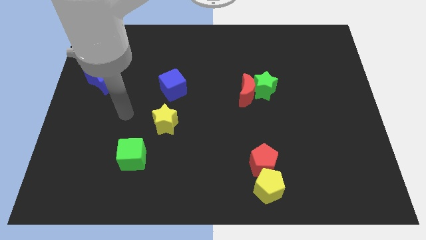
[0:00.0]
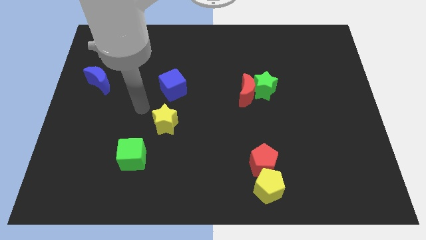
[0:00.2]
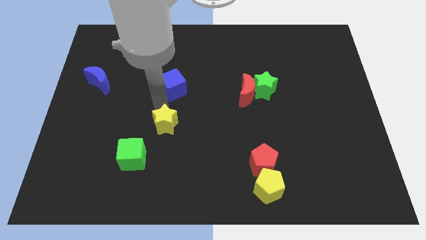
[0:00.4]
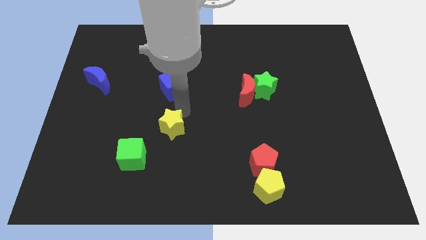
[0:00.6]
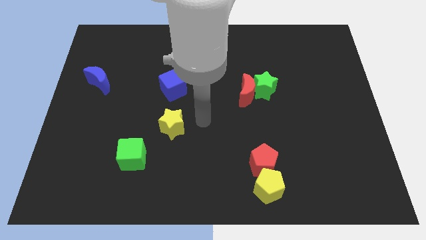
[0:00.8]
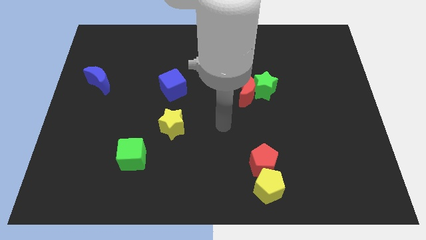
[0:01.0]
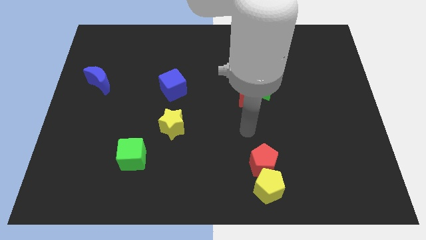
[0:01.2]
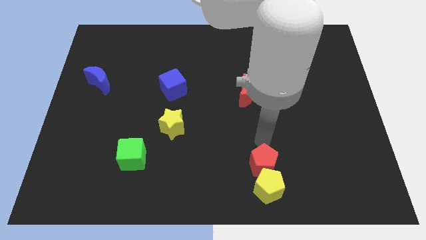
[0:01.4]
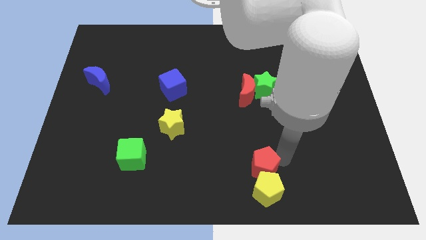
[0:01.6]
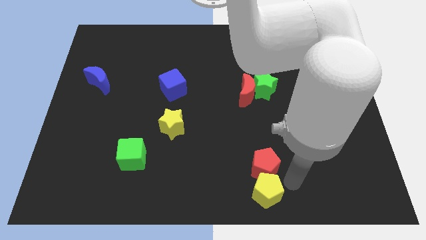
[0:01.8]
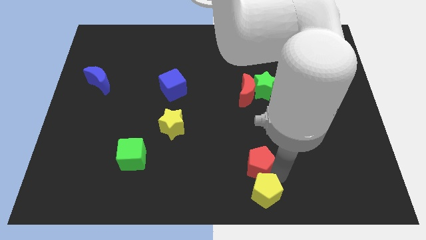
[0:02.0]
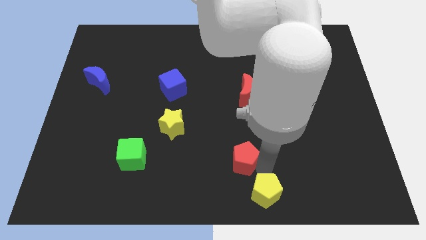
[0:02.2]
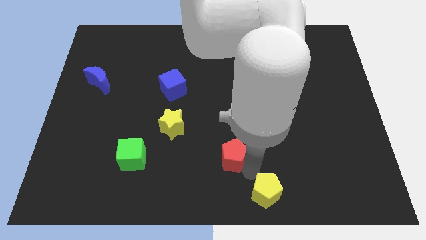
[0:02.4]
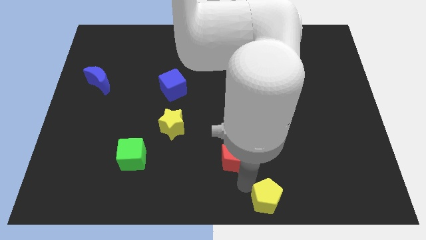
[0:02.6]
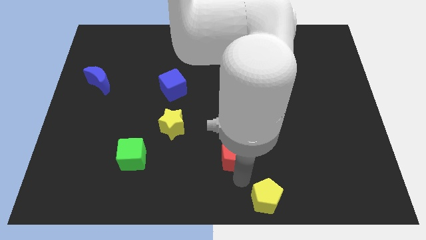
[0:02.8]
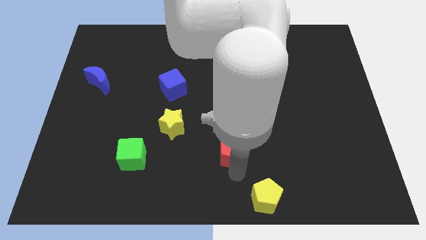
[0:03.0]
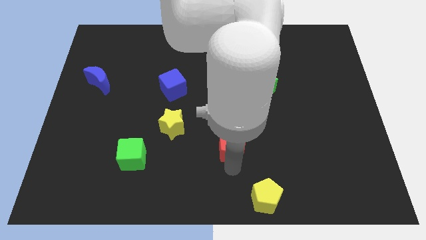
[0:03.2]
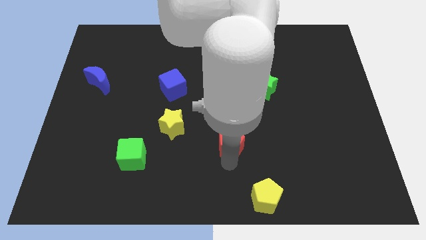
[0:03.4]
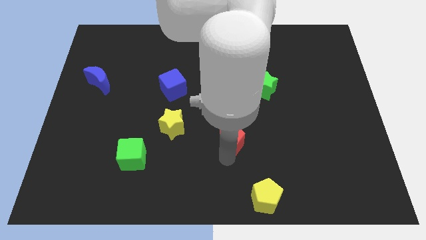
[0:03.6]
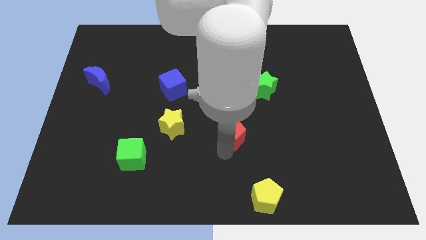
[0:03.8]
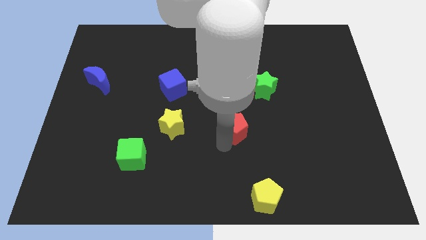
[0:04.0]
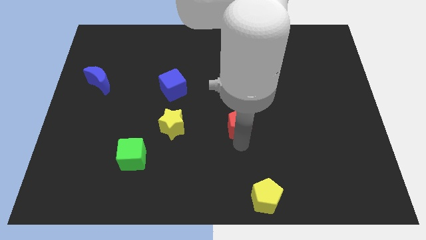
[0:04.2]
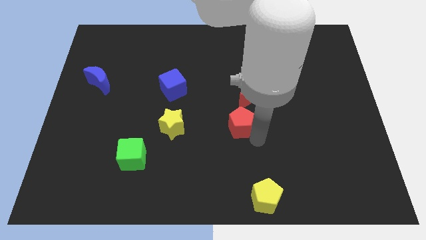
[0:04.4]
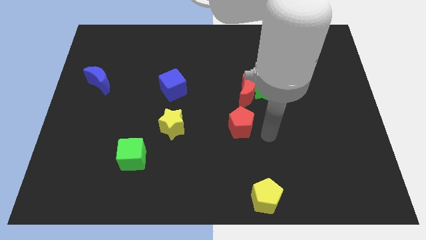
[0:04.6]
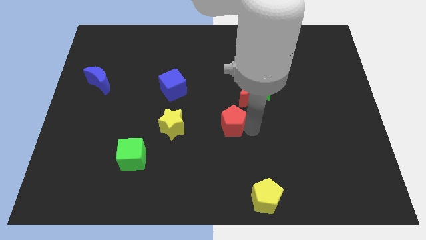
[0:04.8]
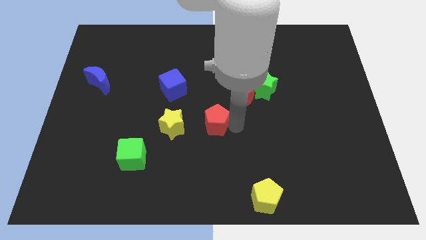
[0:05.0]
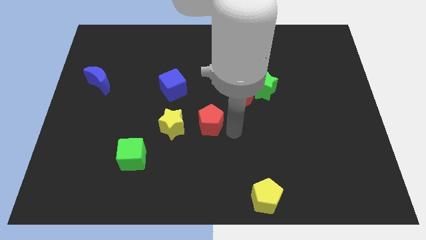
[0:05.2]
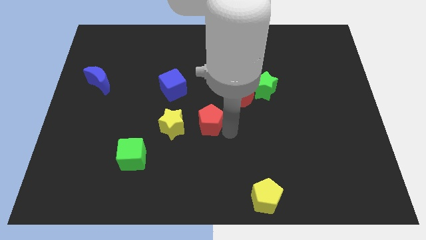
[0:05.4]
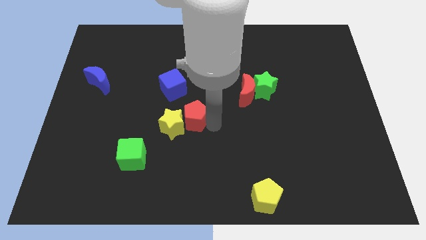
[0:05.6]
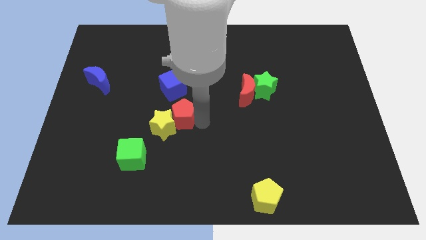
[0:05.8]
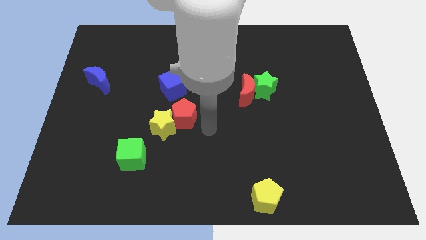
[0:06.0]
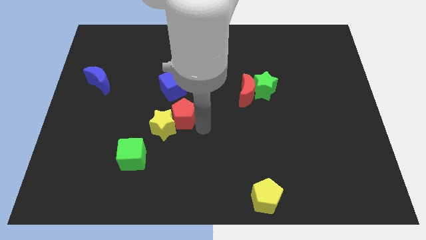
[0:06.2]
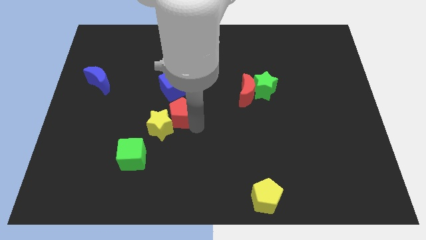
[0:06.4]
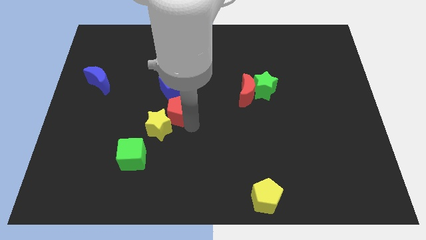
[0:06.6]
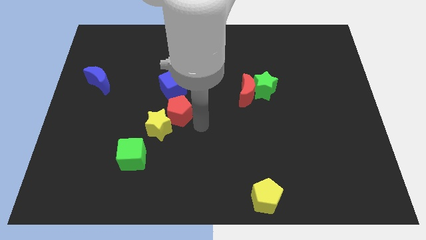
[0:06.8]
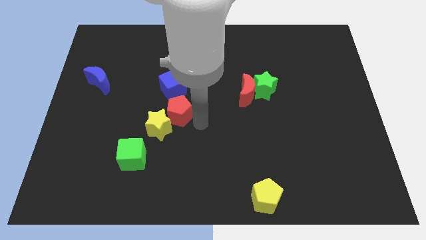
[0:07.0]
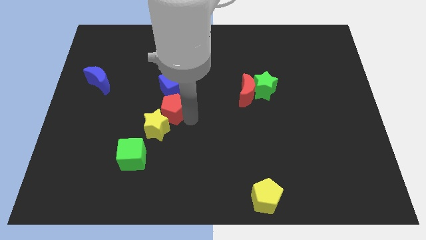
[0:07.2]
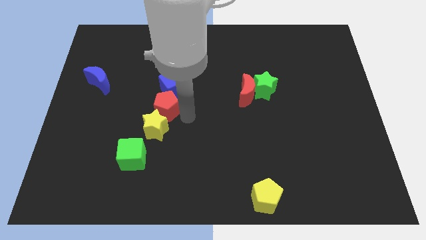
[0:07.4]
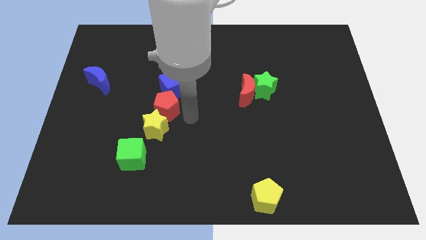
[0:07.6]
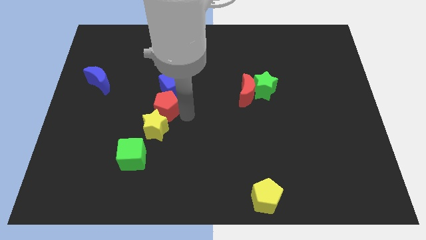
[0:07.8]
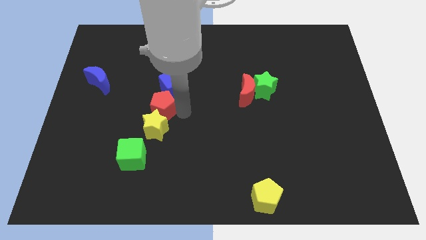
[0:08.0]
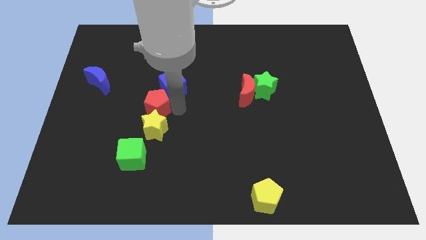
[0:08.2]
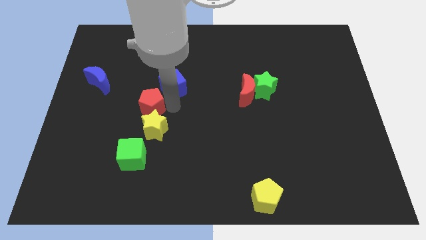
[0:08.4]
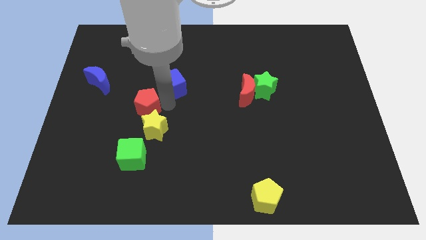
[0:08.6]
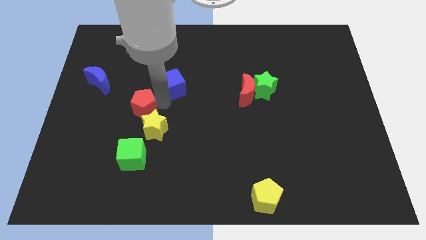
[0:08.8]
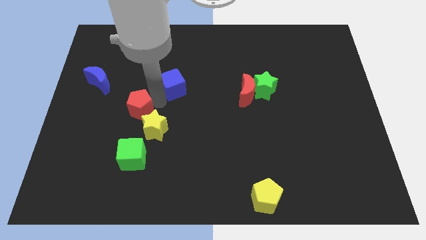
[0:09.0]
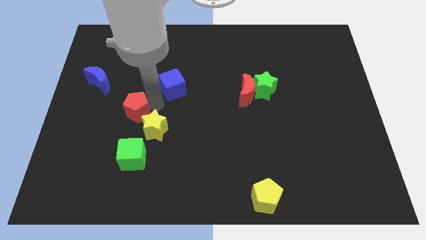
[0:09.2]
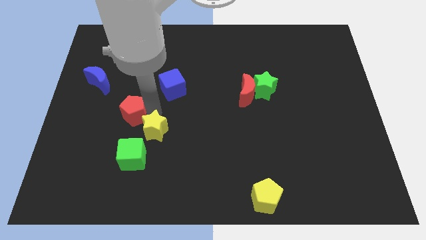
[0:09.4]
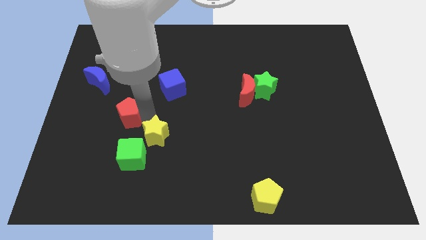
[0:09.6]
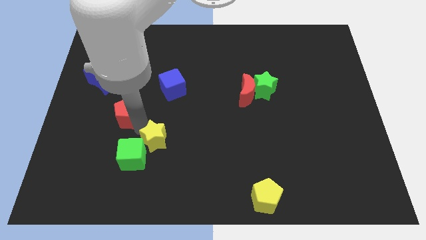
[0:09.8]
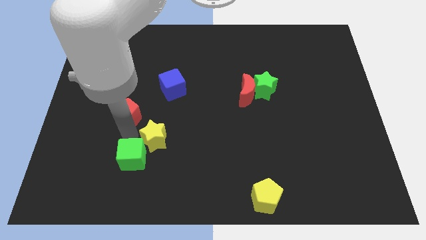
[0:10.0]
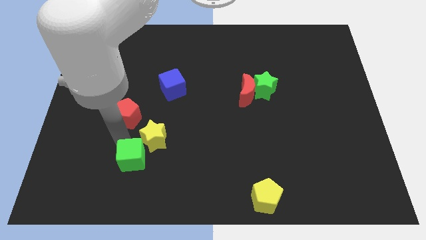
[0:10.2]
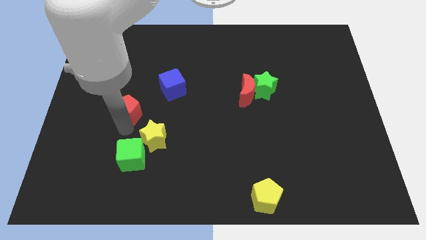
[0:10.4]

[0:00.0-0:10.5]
put the red pentagon to the bottom right side of the blue moon

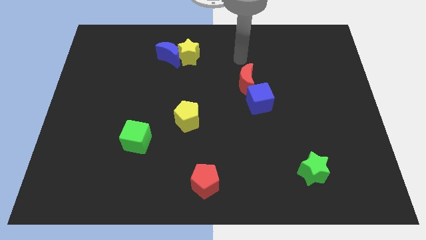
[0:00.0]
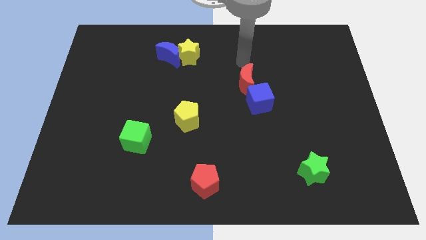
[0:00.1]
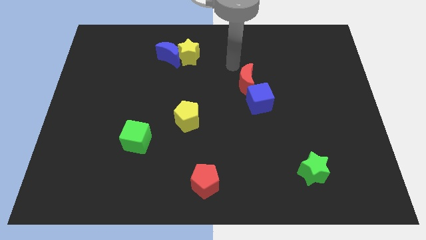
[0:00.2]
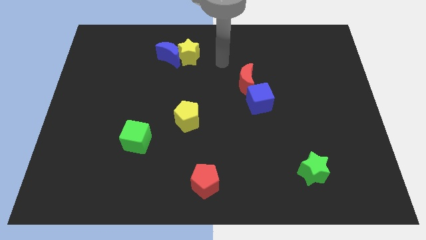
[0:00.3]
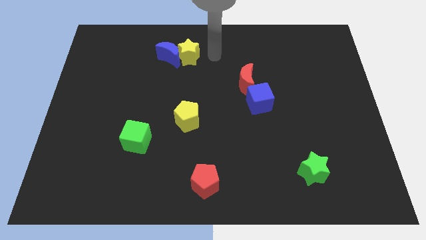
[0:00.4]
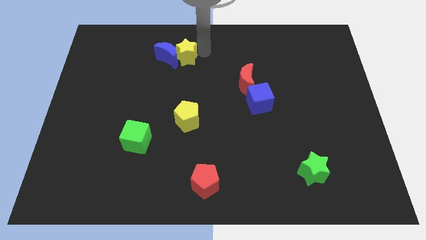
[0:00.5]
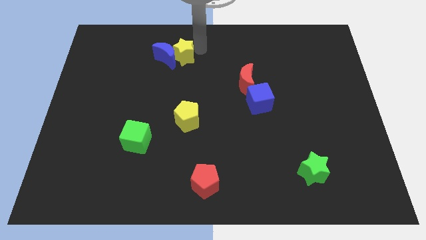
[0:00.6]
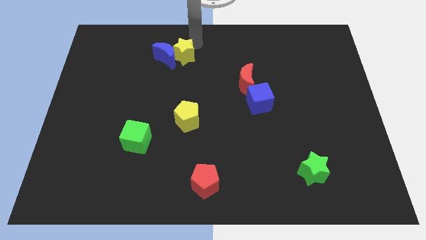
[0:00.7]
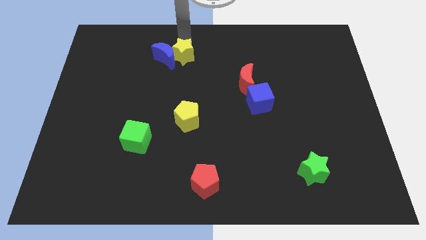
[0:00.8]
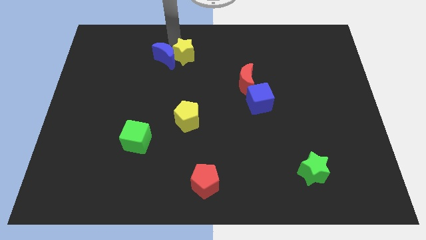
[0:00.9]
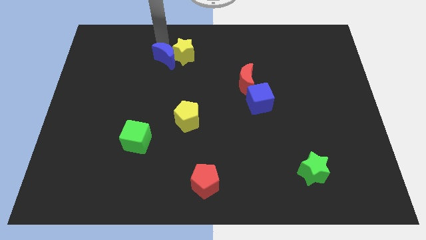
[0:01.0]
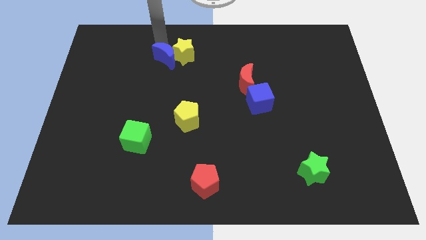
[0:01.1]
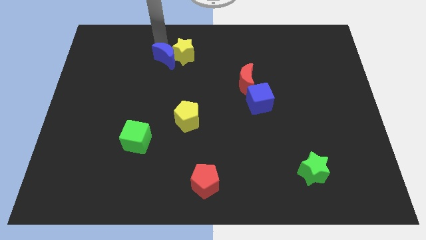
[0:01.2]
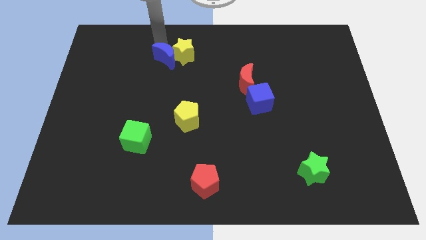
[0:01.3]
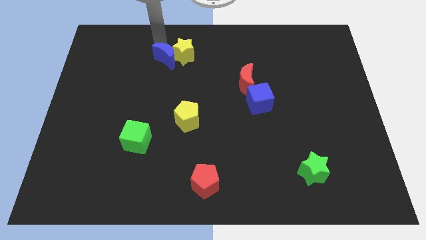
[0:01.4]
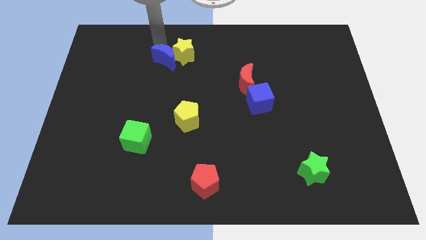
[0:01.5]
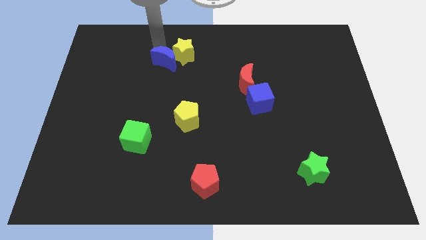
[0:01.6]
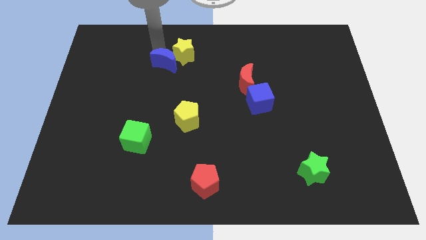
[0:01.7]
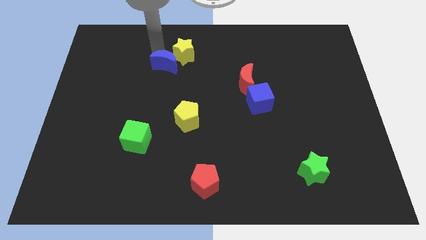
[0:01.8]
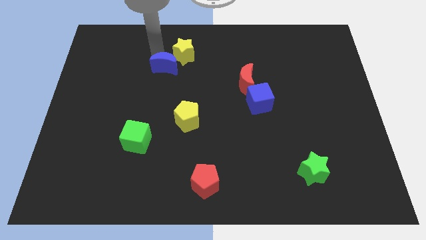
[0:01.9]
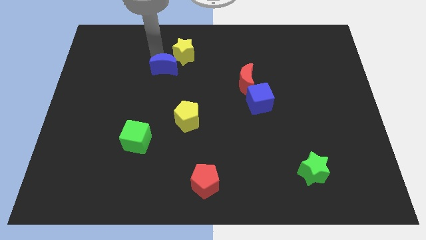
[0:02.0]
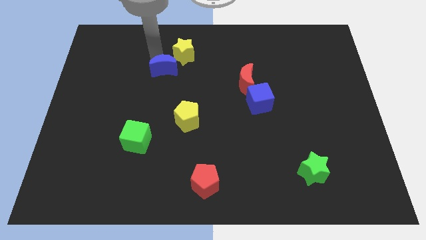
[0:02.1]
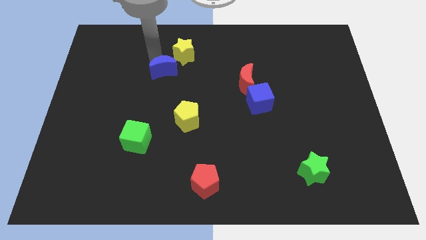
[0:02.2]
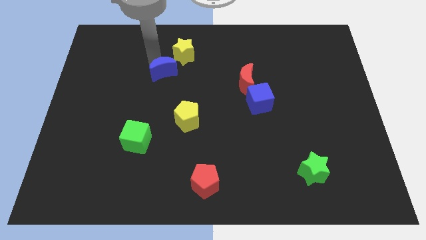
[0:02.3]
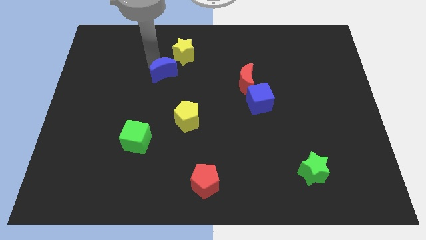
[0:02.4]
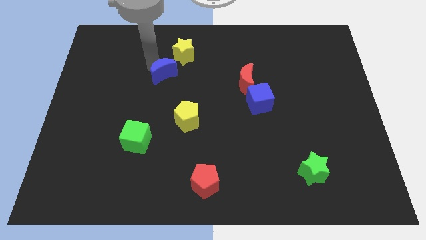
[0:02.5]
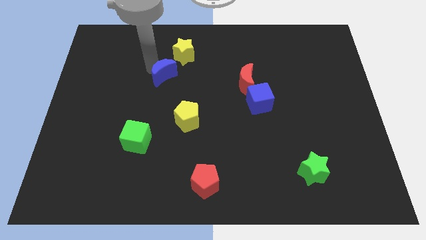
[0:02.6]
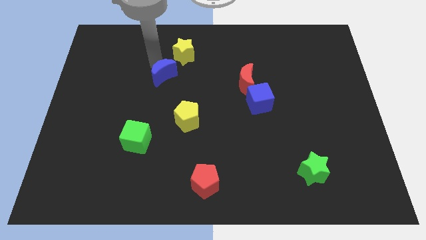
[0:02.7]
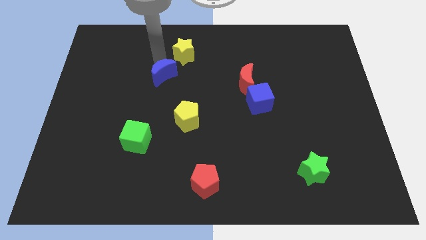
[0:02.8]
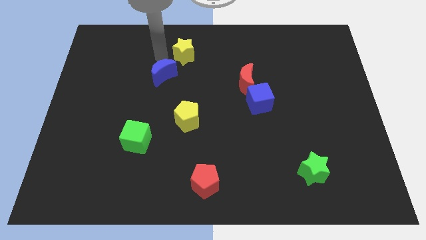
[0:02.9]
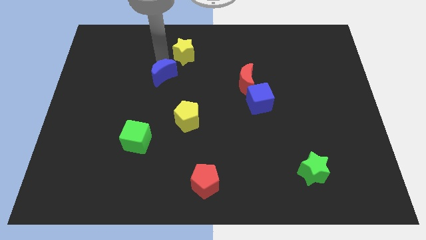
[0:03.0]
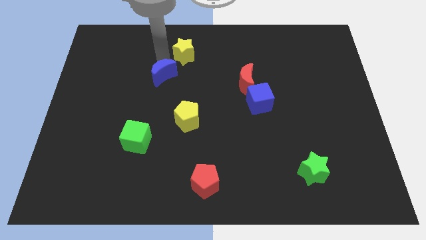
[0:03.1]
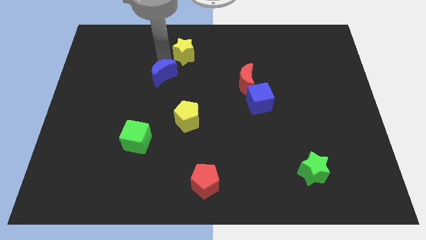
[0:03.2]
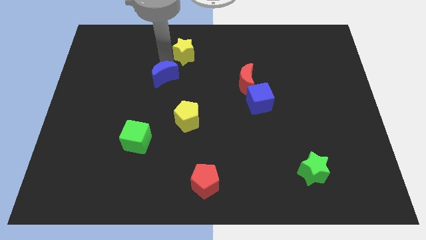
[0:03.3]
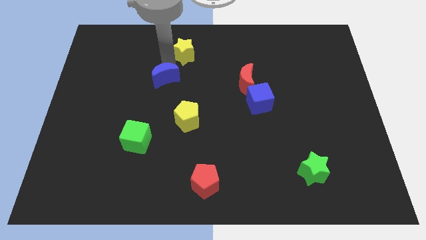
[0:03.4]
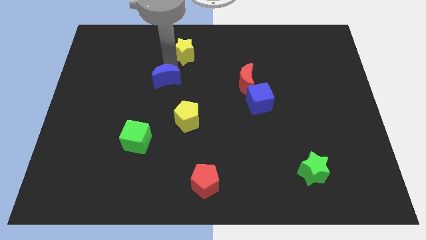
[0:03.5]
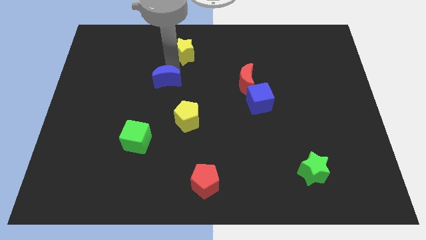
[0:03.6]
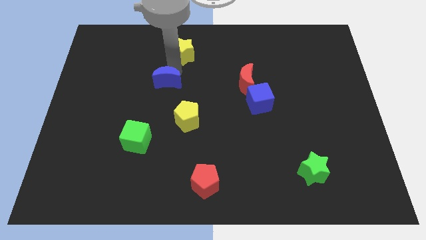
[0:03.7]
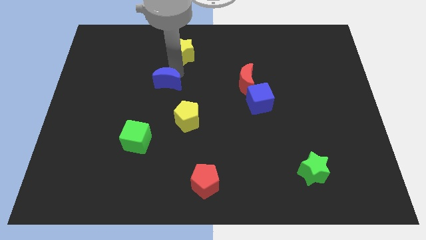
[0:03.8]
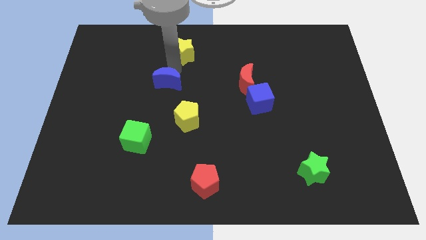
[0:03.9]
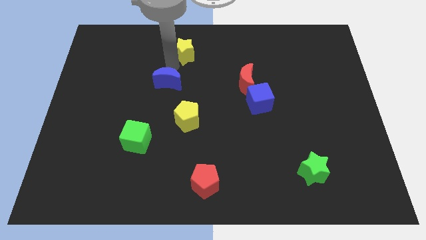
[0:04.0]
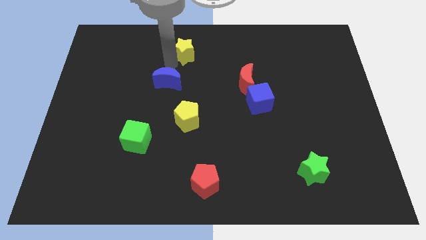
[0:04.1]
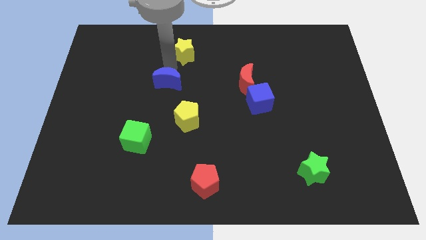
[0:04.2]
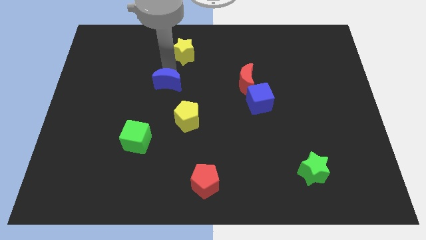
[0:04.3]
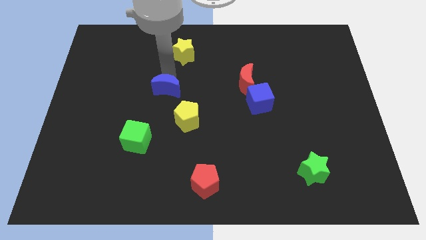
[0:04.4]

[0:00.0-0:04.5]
push the blue moon to the top left side of the yellow pentagon
